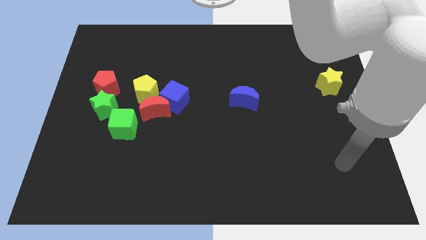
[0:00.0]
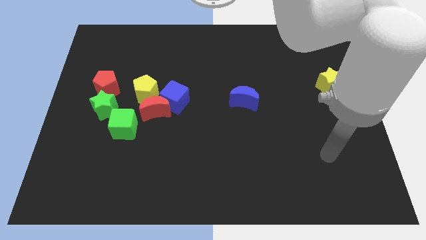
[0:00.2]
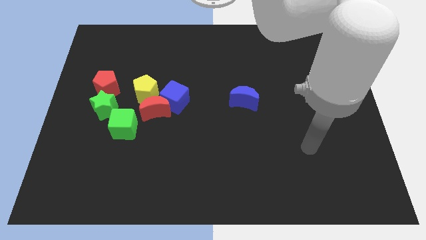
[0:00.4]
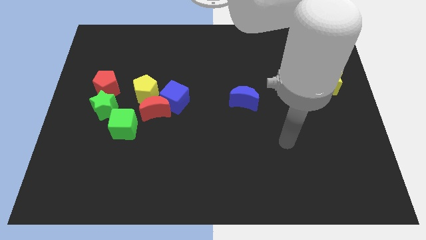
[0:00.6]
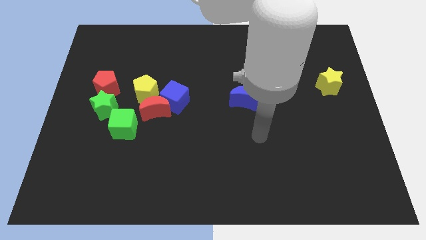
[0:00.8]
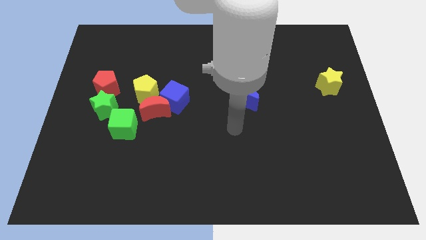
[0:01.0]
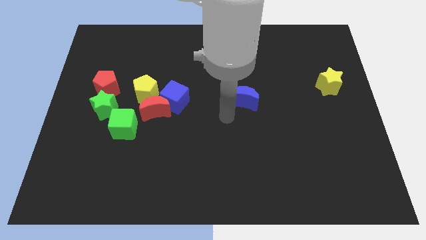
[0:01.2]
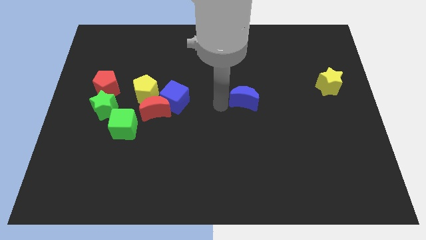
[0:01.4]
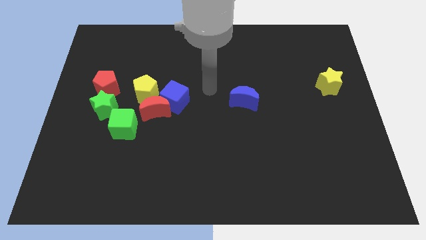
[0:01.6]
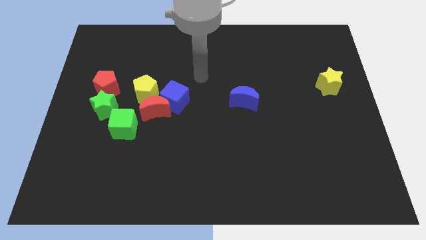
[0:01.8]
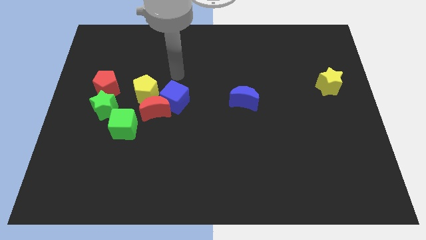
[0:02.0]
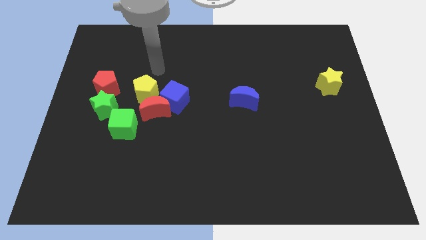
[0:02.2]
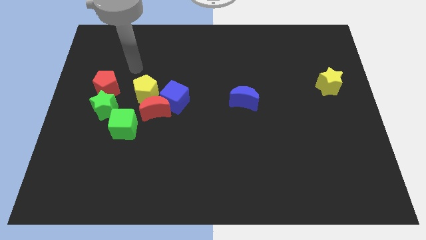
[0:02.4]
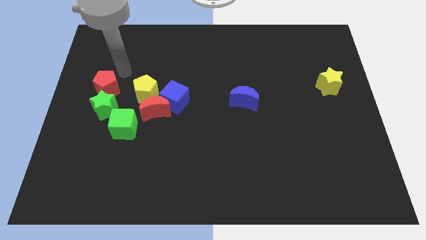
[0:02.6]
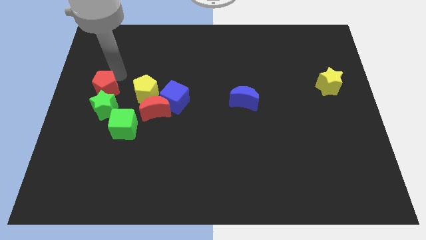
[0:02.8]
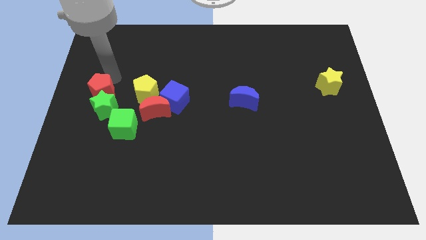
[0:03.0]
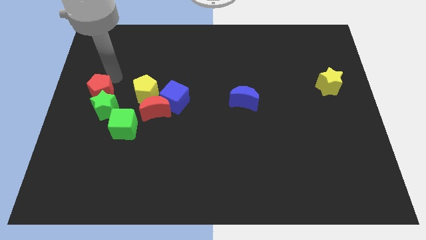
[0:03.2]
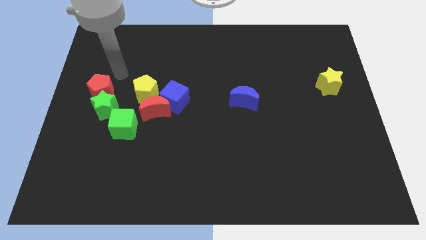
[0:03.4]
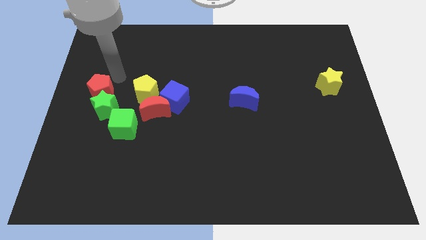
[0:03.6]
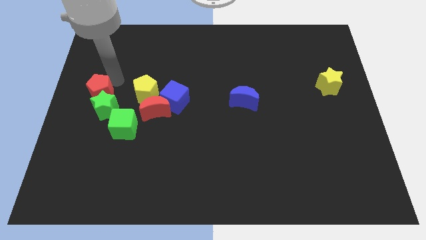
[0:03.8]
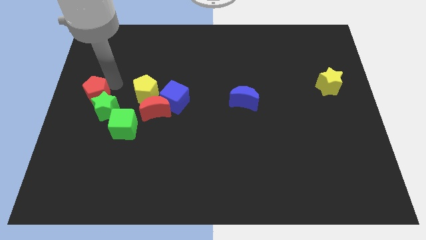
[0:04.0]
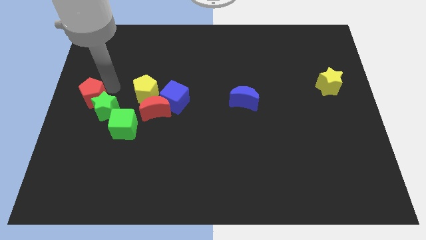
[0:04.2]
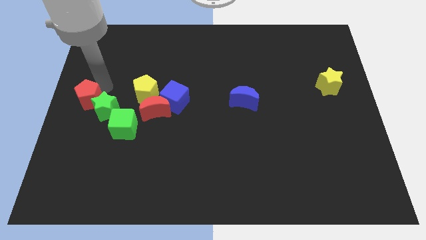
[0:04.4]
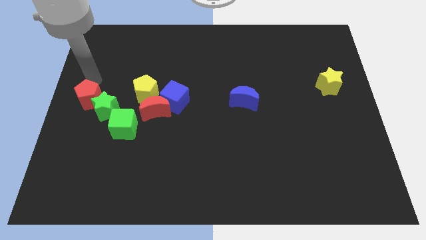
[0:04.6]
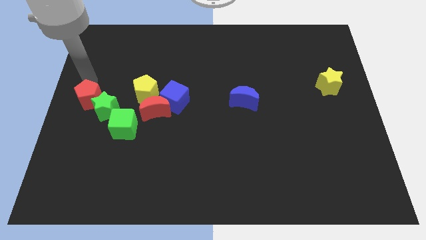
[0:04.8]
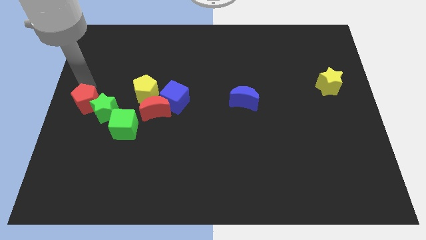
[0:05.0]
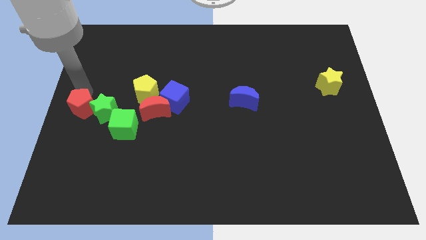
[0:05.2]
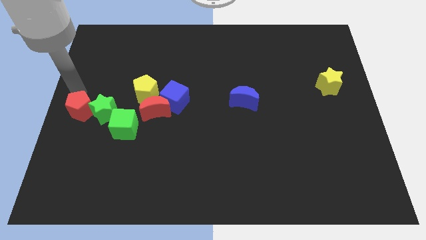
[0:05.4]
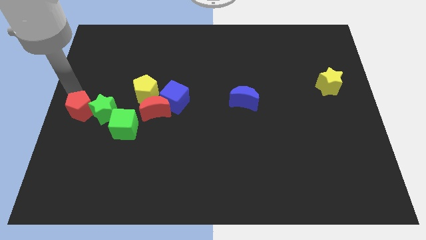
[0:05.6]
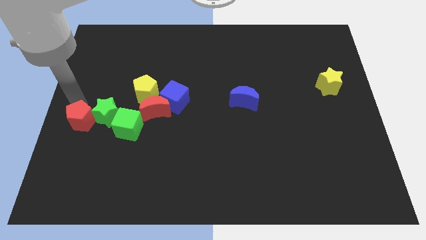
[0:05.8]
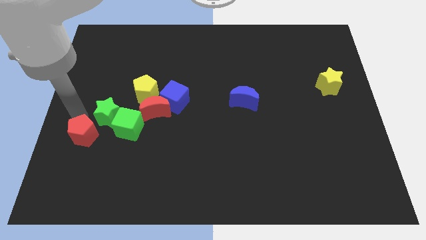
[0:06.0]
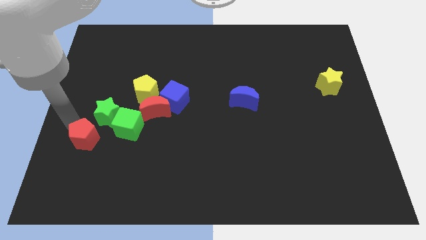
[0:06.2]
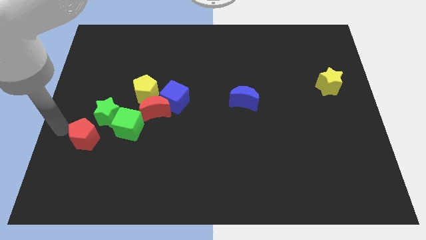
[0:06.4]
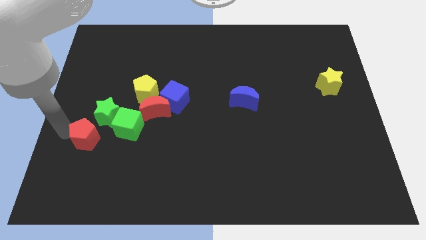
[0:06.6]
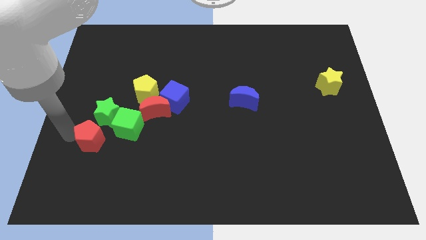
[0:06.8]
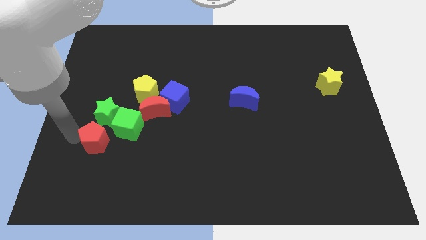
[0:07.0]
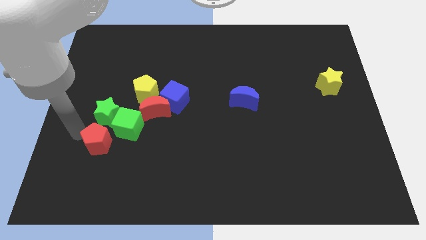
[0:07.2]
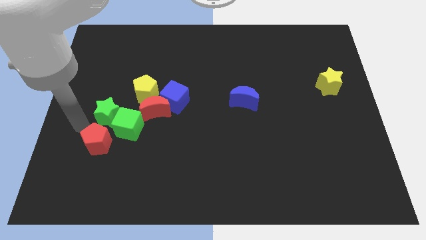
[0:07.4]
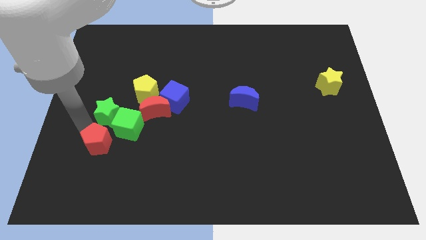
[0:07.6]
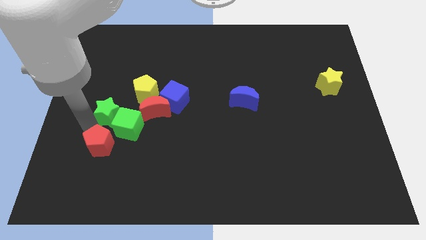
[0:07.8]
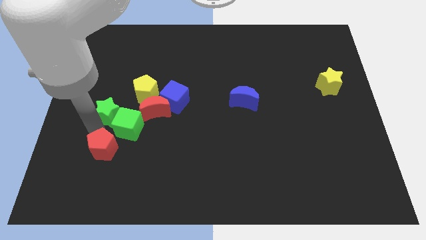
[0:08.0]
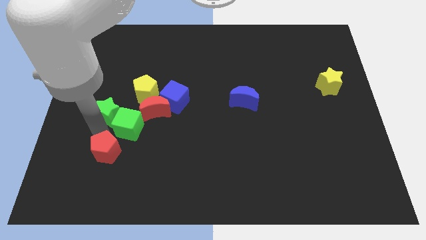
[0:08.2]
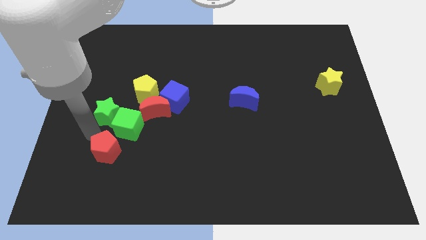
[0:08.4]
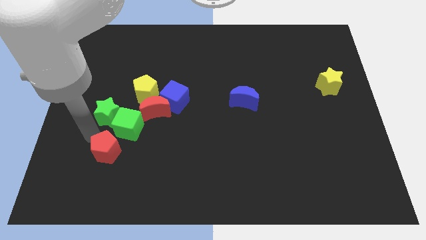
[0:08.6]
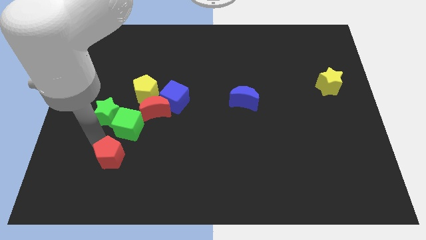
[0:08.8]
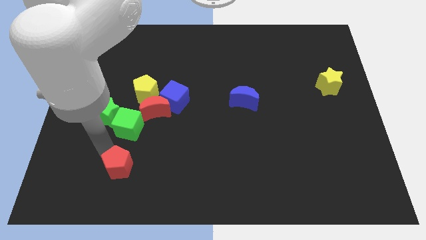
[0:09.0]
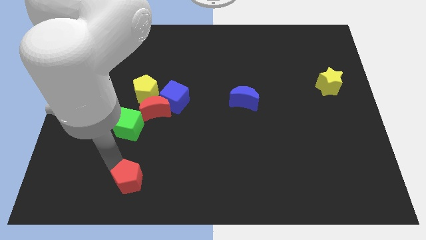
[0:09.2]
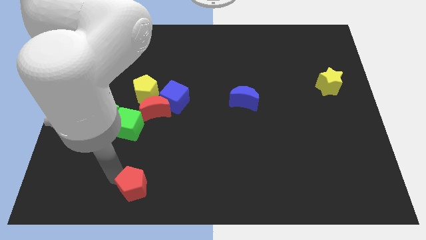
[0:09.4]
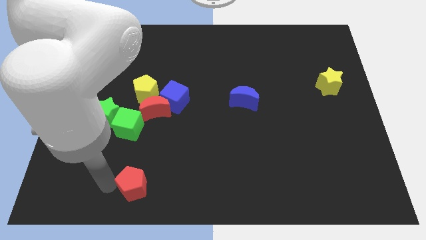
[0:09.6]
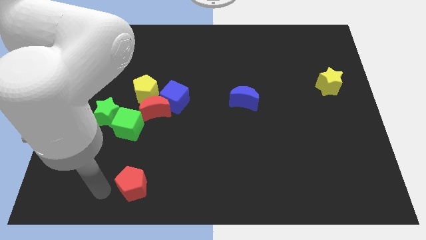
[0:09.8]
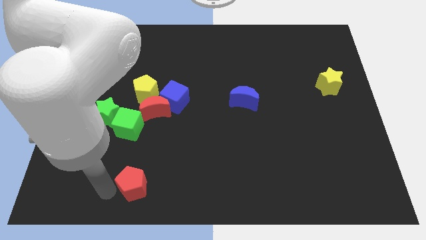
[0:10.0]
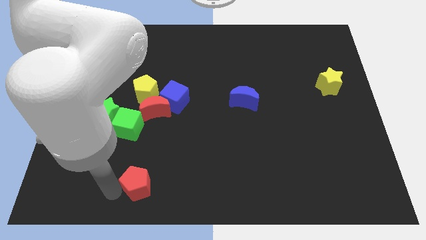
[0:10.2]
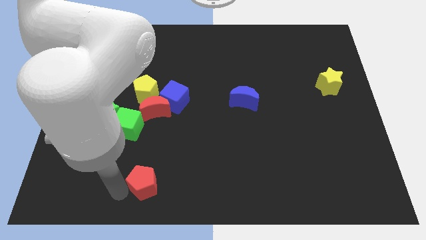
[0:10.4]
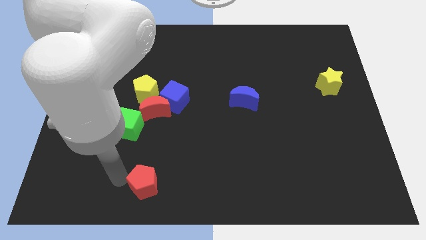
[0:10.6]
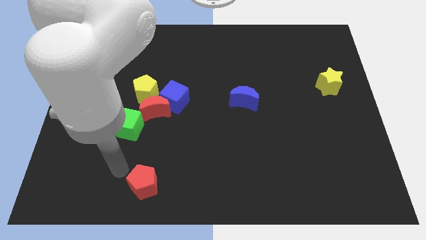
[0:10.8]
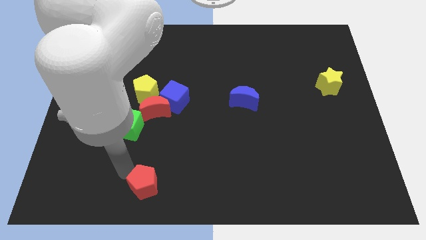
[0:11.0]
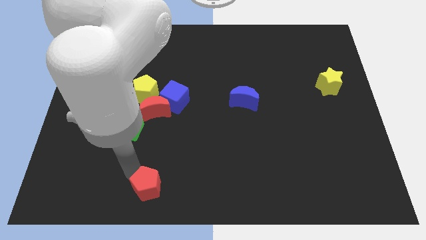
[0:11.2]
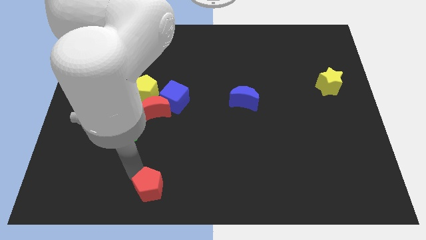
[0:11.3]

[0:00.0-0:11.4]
slide the red pentagon to the bottom side
